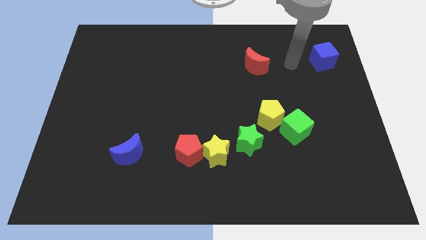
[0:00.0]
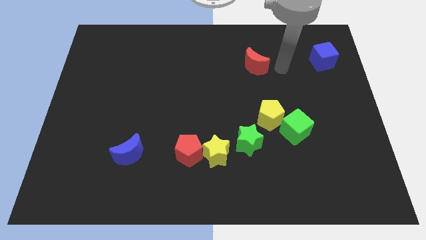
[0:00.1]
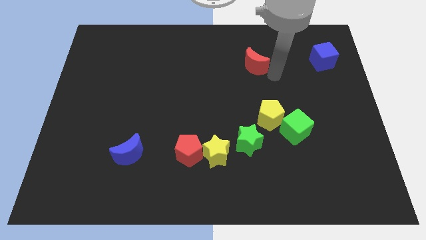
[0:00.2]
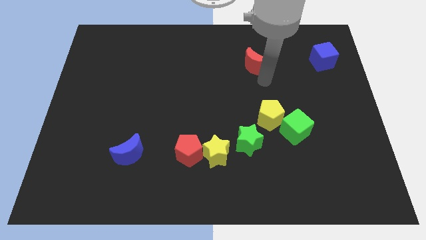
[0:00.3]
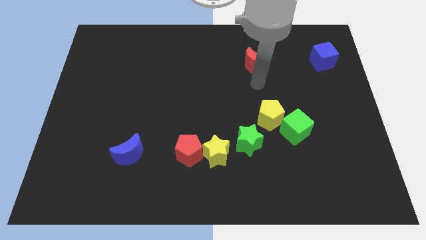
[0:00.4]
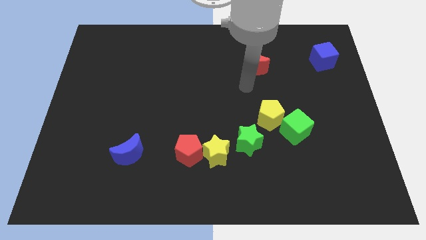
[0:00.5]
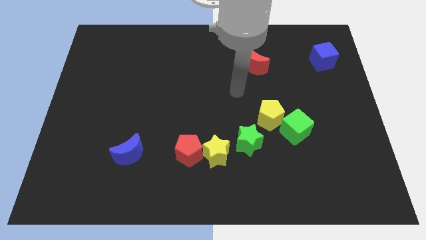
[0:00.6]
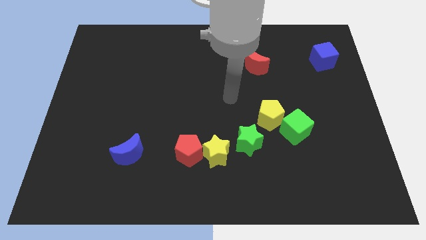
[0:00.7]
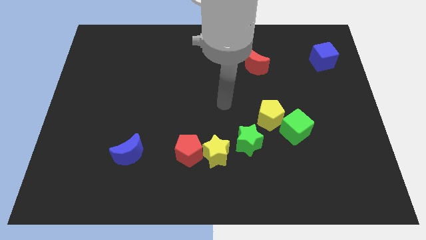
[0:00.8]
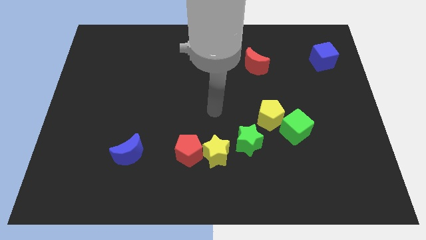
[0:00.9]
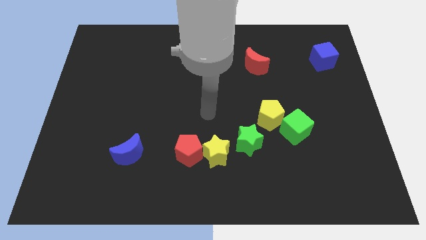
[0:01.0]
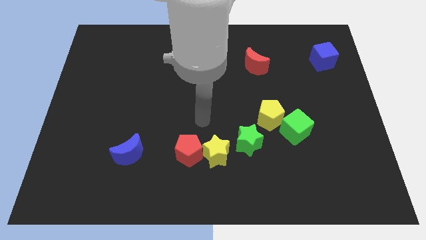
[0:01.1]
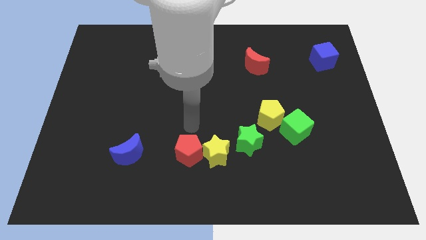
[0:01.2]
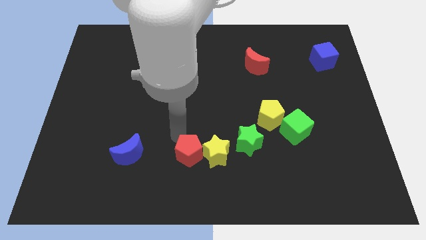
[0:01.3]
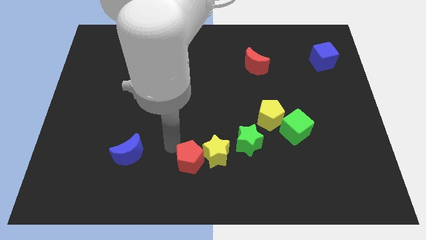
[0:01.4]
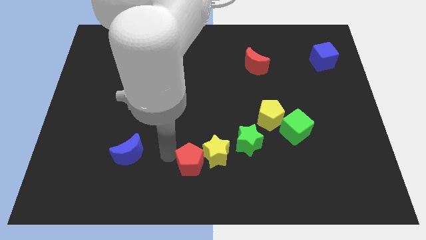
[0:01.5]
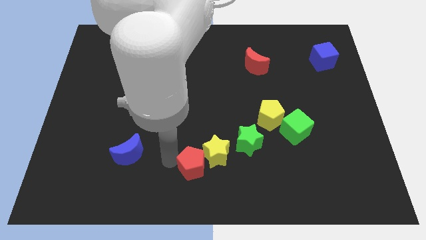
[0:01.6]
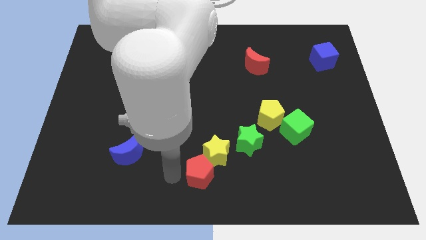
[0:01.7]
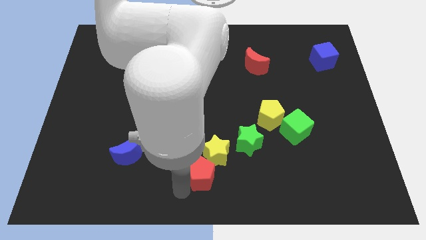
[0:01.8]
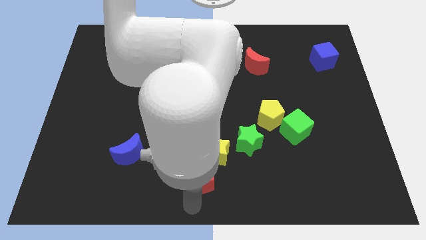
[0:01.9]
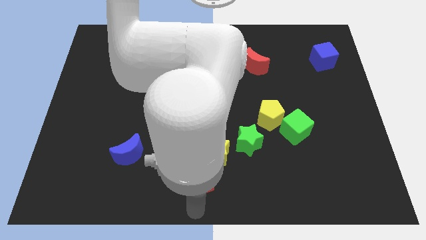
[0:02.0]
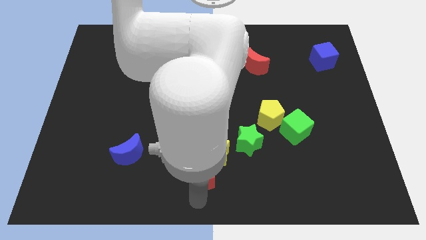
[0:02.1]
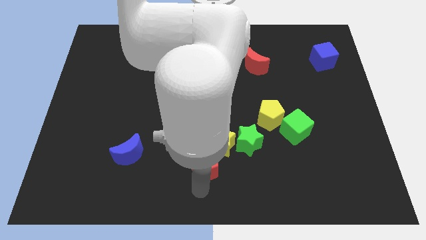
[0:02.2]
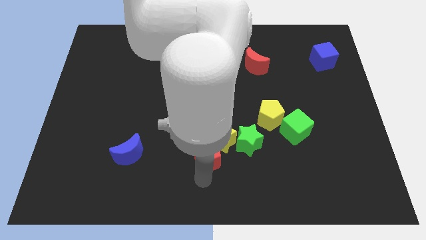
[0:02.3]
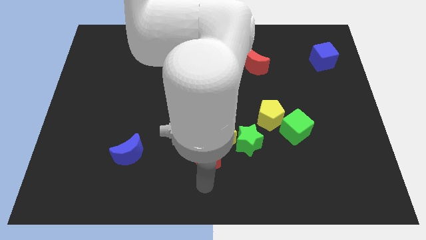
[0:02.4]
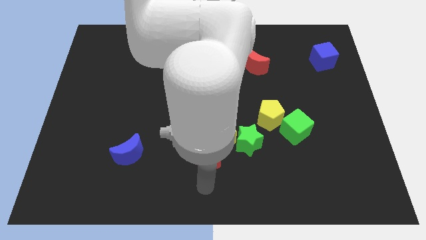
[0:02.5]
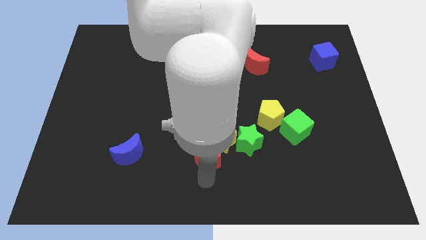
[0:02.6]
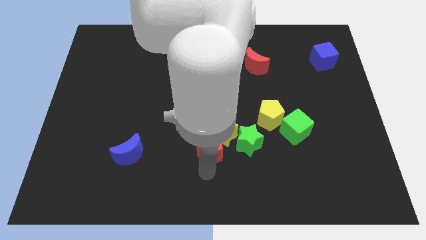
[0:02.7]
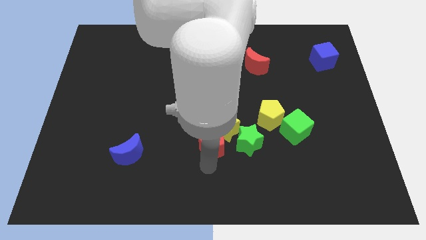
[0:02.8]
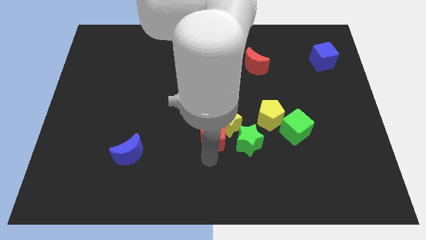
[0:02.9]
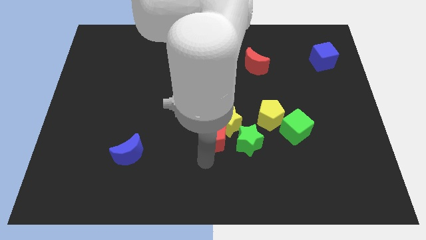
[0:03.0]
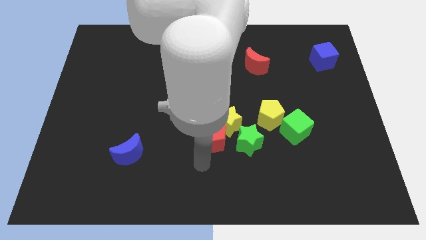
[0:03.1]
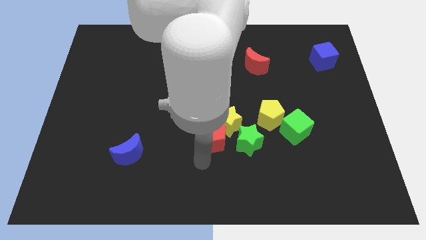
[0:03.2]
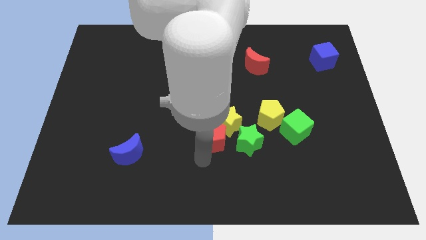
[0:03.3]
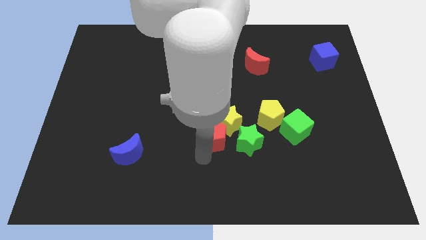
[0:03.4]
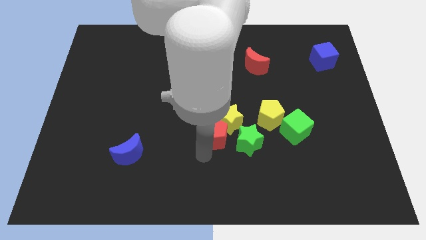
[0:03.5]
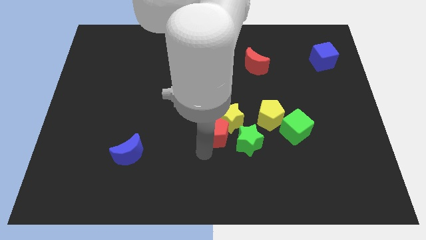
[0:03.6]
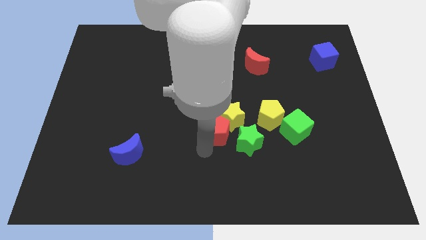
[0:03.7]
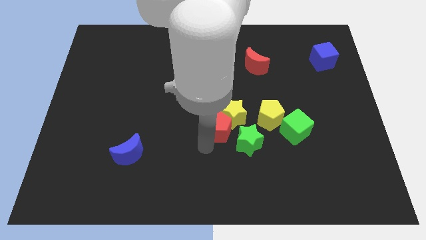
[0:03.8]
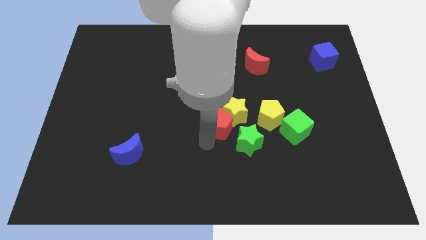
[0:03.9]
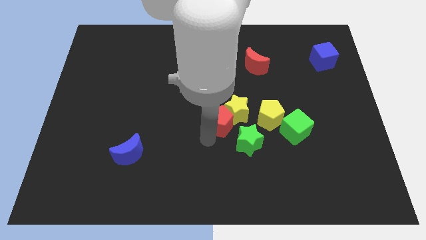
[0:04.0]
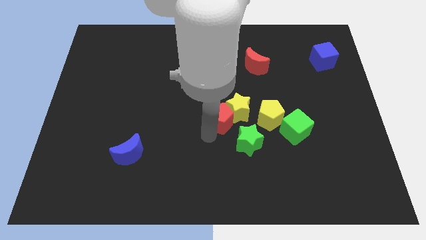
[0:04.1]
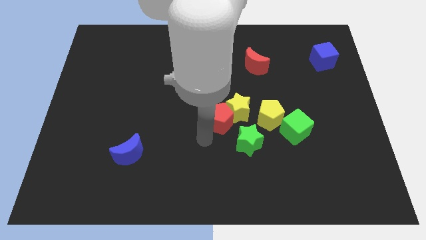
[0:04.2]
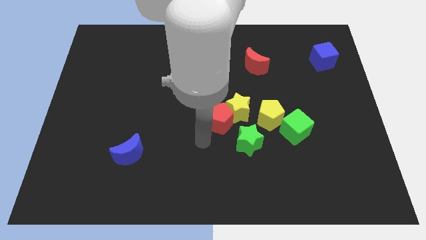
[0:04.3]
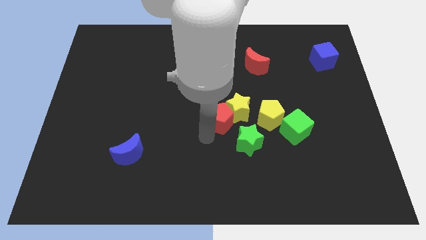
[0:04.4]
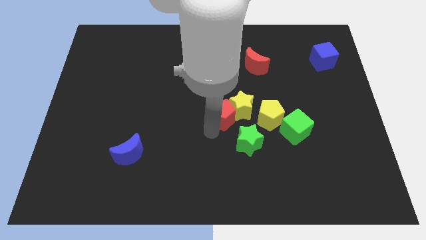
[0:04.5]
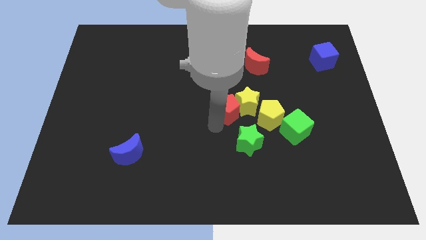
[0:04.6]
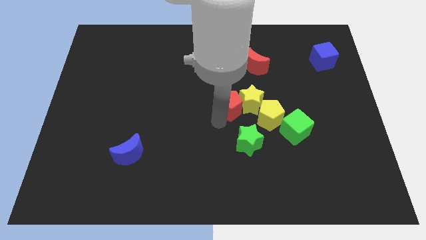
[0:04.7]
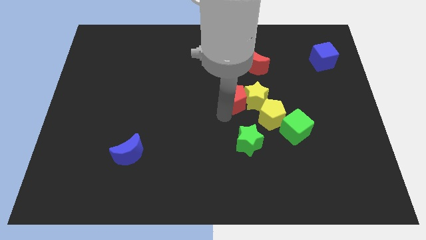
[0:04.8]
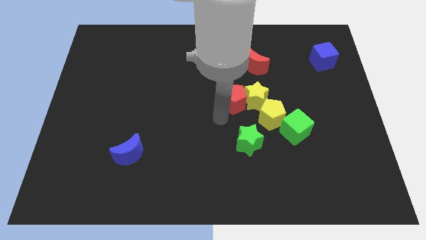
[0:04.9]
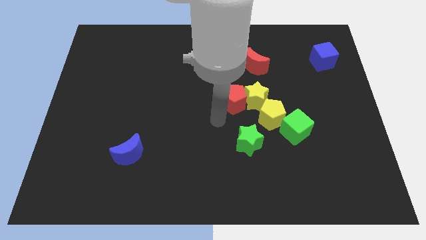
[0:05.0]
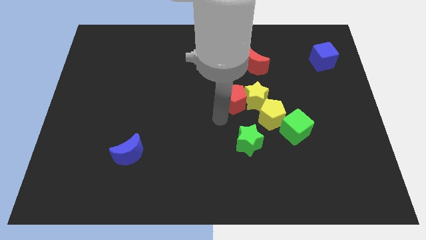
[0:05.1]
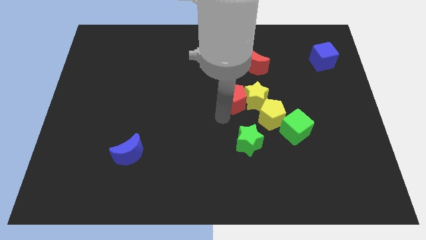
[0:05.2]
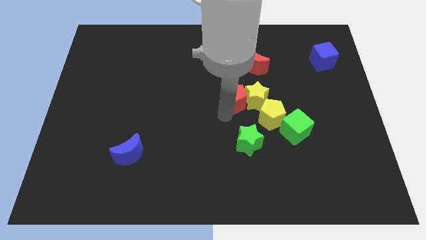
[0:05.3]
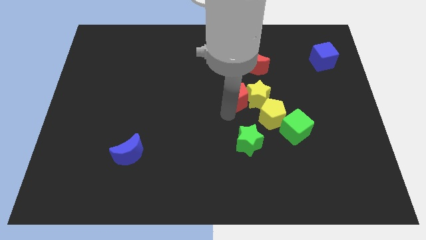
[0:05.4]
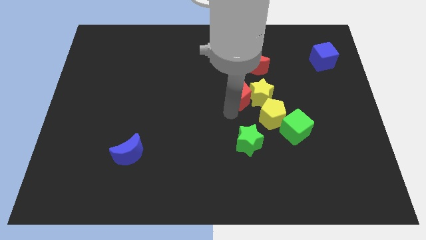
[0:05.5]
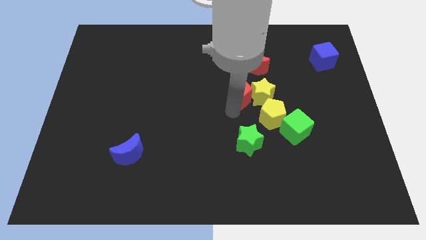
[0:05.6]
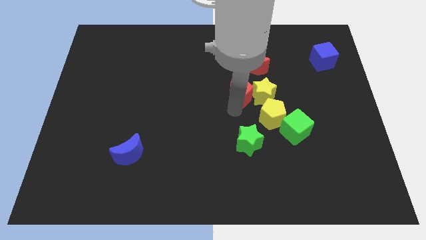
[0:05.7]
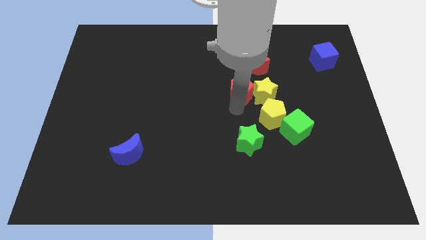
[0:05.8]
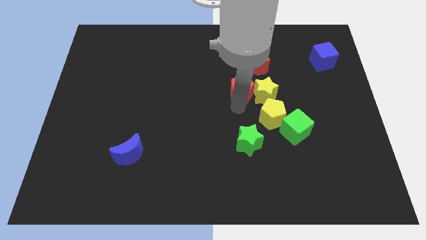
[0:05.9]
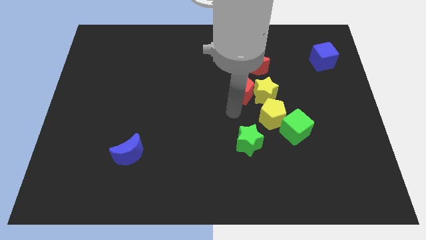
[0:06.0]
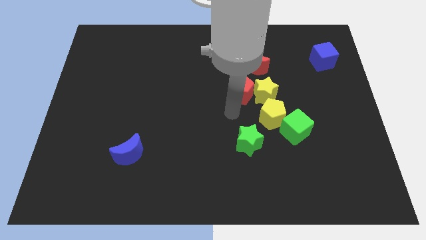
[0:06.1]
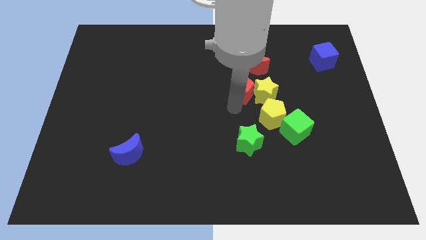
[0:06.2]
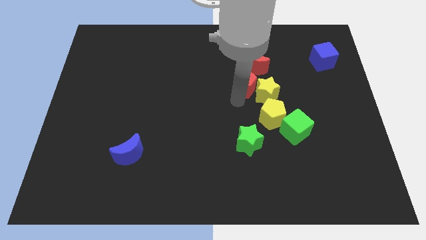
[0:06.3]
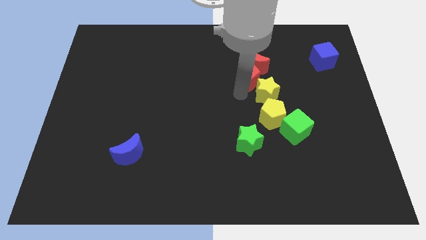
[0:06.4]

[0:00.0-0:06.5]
move the red pentagon close to the red moon
